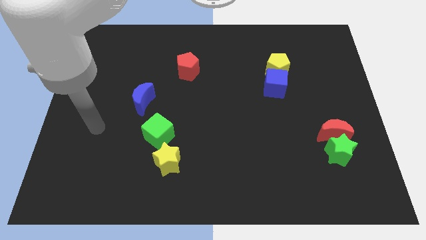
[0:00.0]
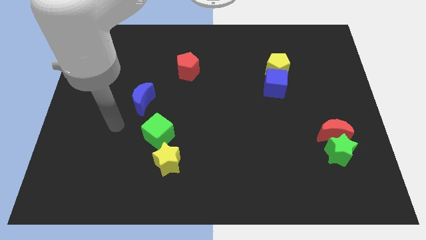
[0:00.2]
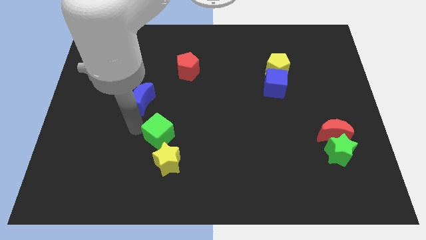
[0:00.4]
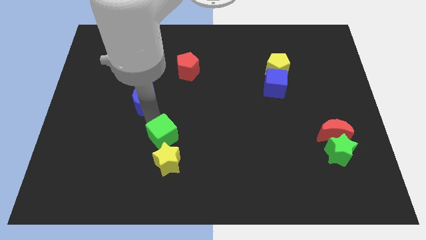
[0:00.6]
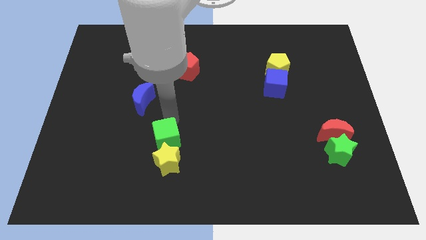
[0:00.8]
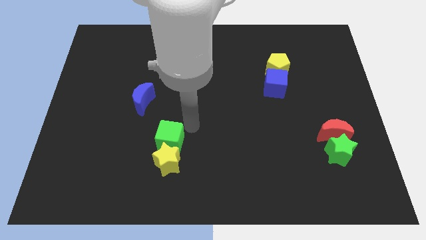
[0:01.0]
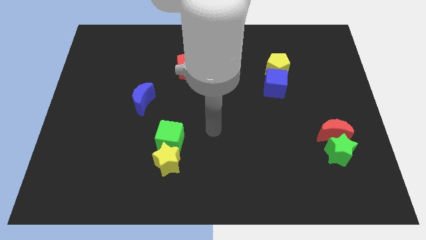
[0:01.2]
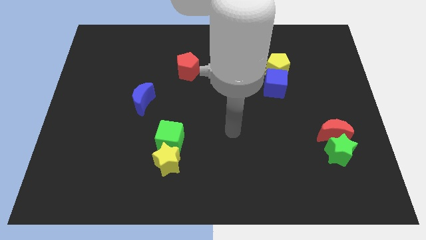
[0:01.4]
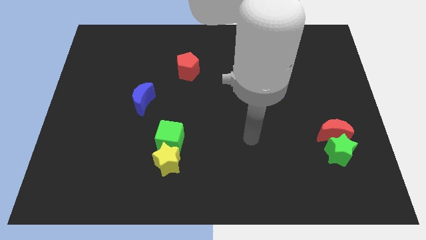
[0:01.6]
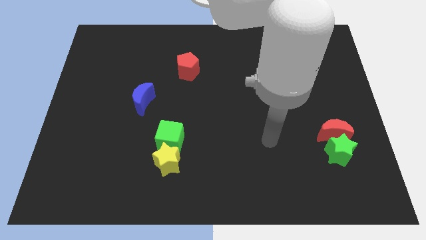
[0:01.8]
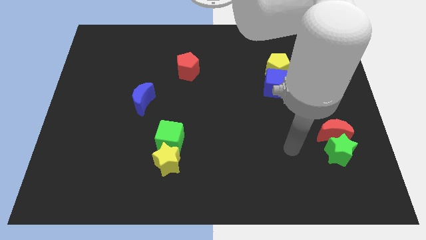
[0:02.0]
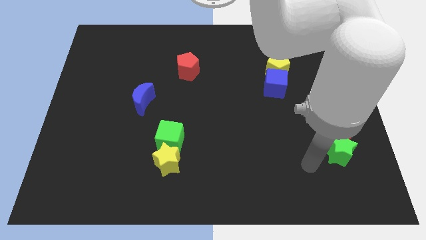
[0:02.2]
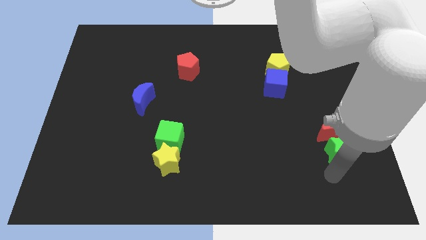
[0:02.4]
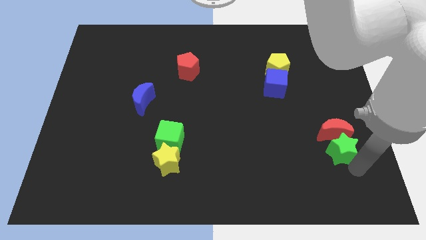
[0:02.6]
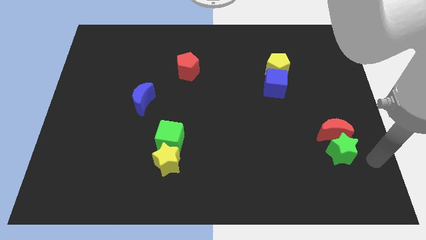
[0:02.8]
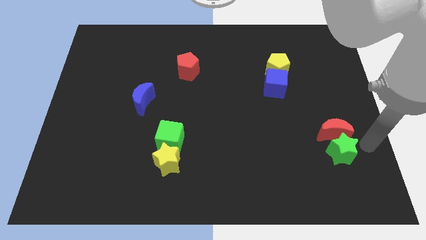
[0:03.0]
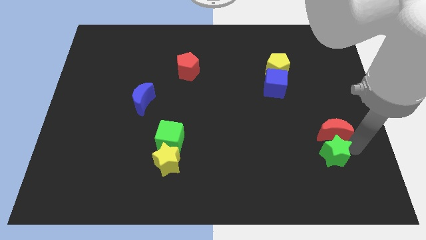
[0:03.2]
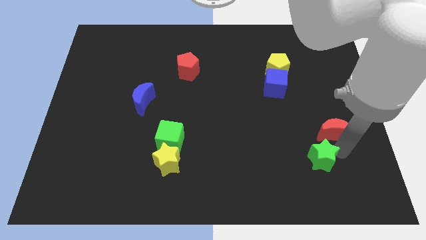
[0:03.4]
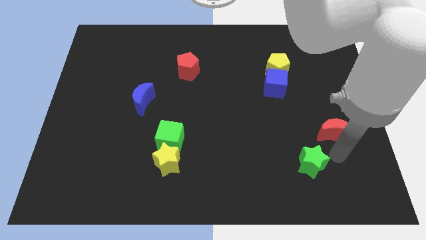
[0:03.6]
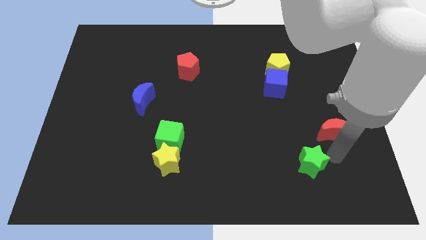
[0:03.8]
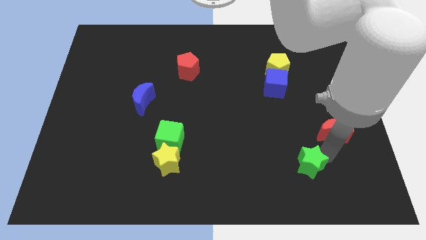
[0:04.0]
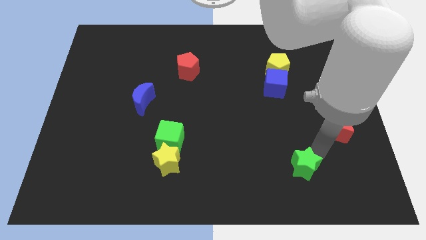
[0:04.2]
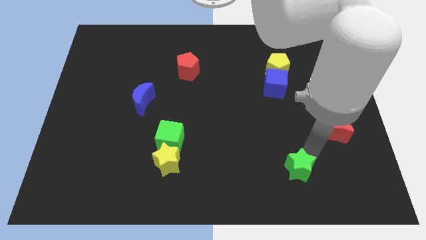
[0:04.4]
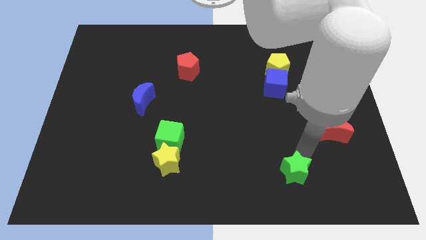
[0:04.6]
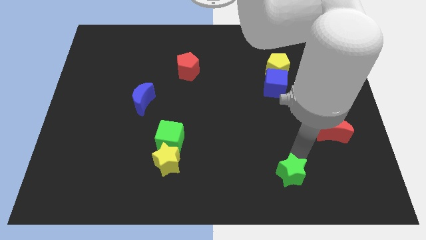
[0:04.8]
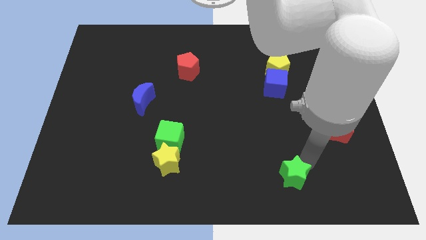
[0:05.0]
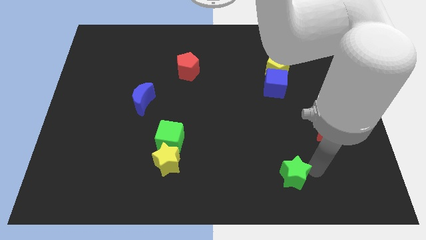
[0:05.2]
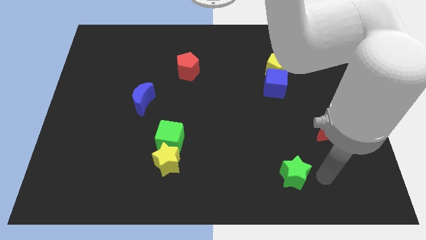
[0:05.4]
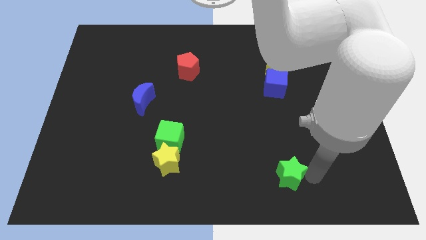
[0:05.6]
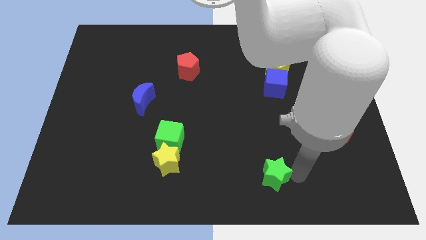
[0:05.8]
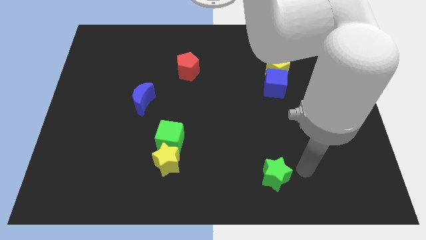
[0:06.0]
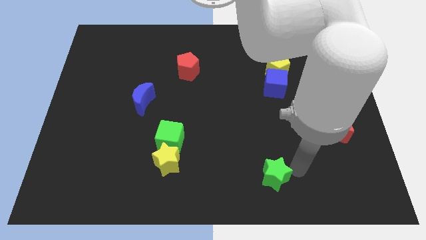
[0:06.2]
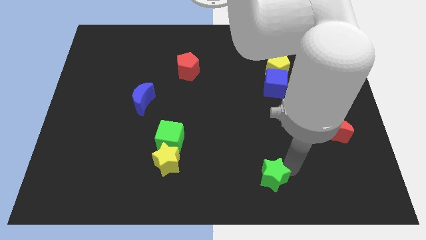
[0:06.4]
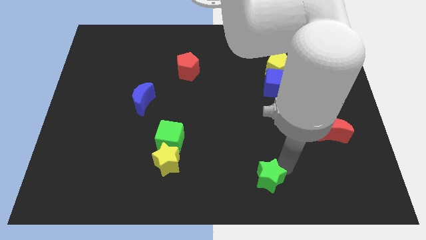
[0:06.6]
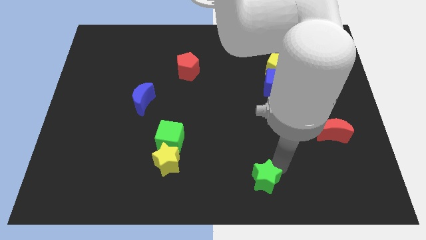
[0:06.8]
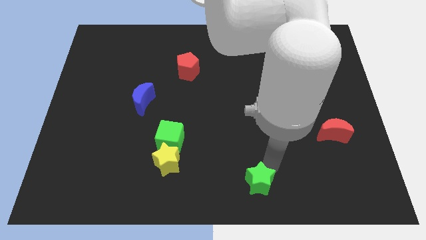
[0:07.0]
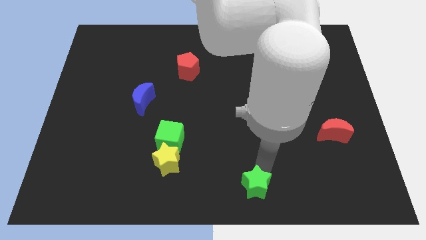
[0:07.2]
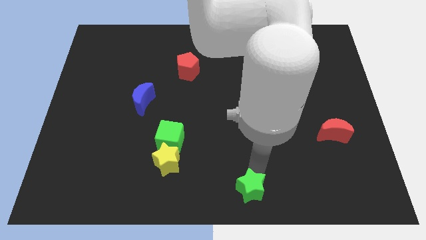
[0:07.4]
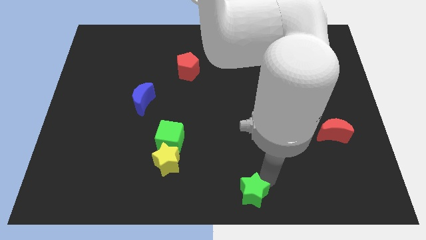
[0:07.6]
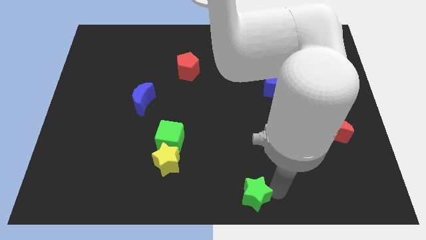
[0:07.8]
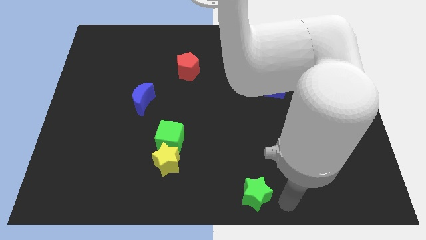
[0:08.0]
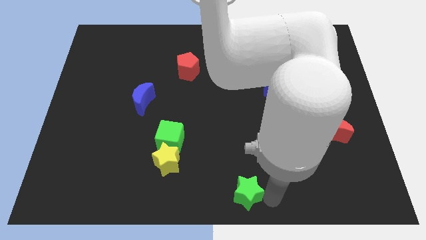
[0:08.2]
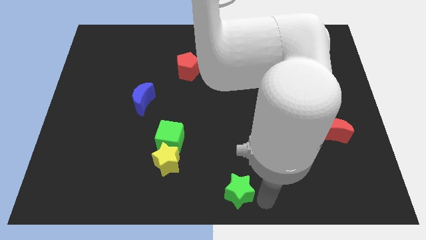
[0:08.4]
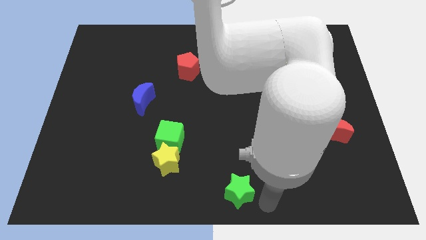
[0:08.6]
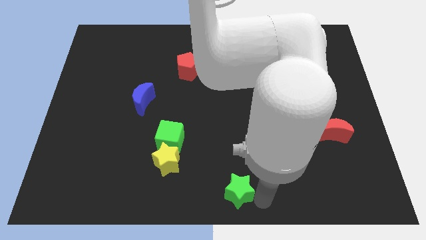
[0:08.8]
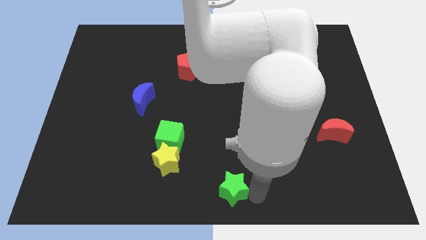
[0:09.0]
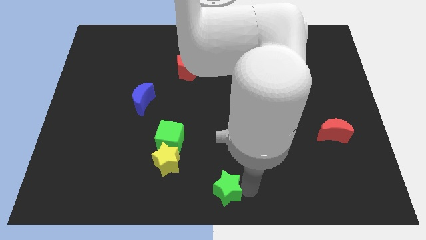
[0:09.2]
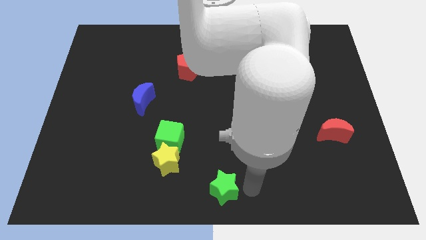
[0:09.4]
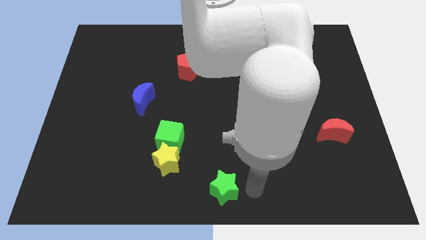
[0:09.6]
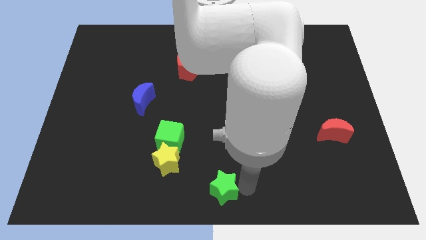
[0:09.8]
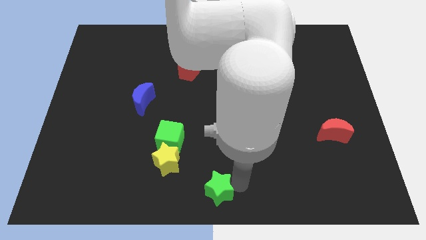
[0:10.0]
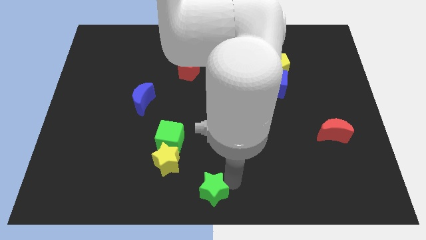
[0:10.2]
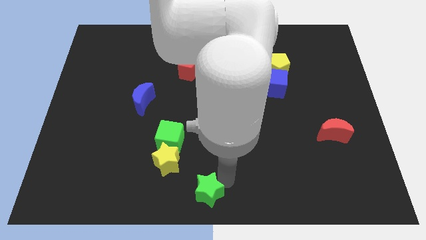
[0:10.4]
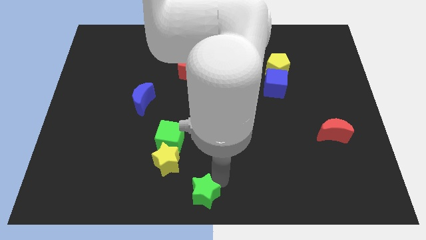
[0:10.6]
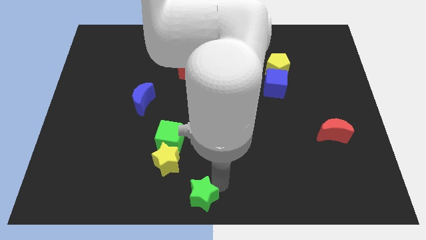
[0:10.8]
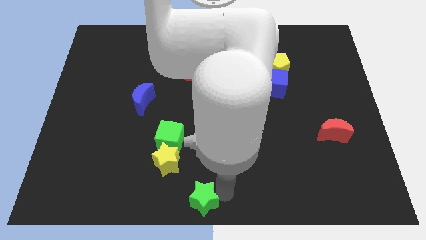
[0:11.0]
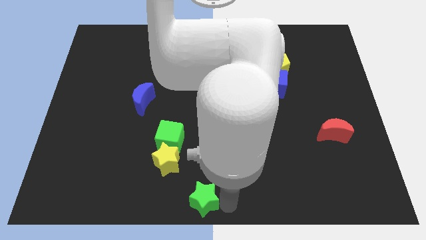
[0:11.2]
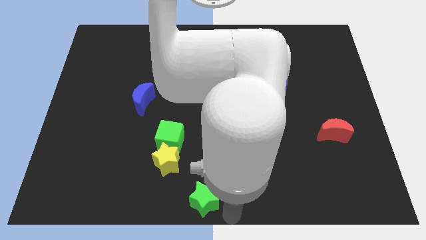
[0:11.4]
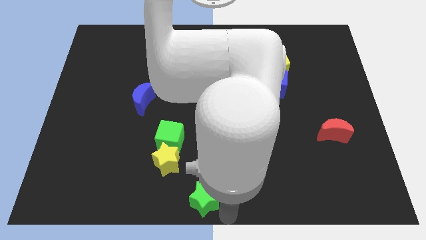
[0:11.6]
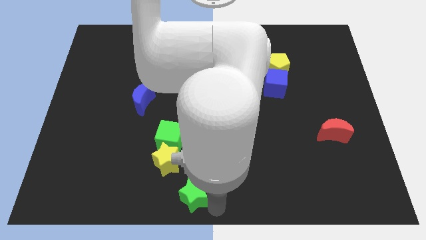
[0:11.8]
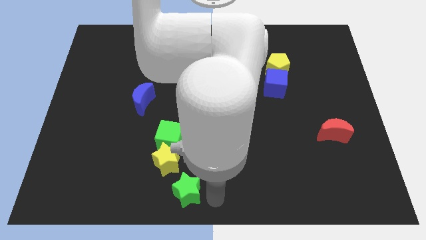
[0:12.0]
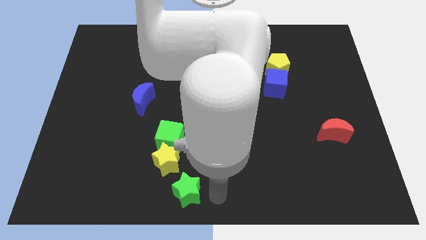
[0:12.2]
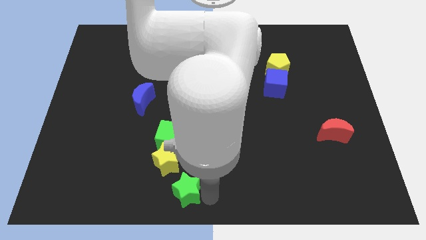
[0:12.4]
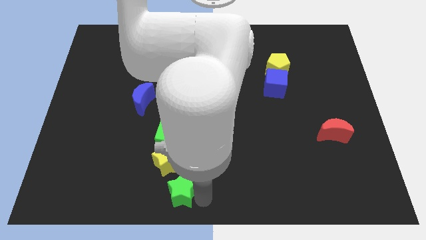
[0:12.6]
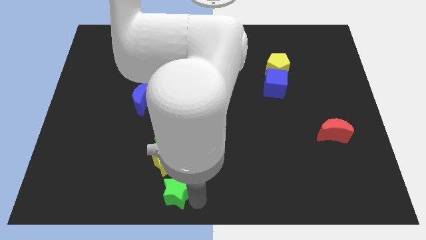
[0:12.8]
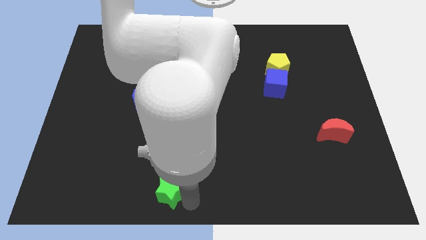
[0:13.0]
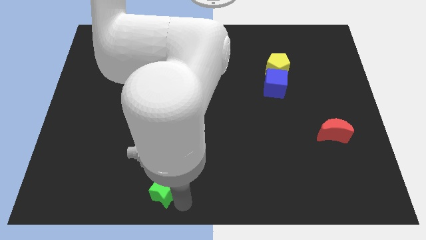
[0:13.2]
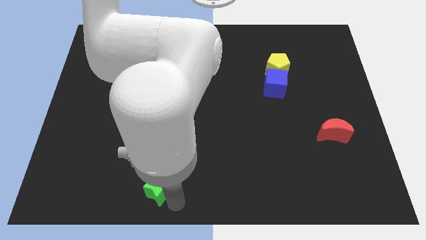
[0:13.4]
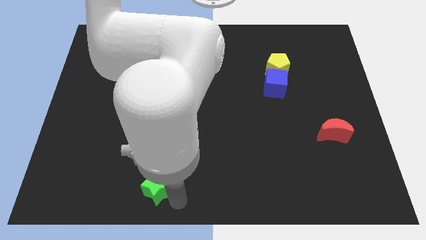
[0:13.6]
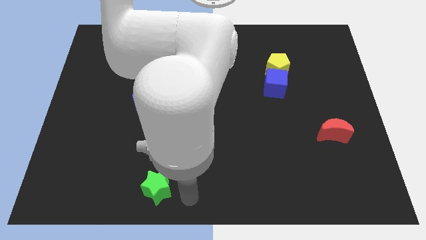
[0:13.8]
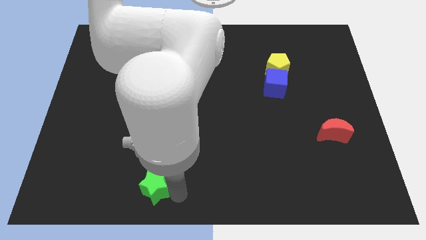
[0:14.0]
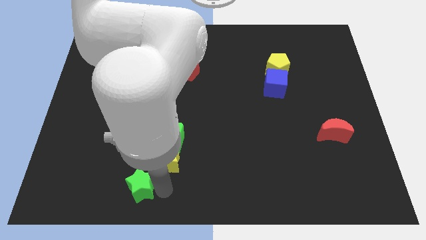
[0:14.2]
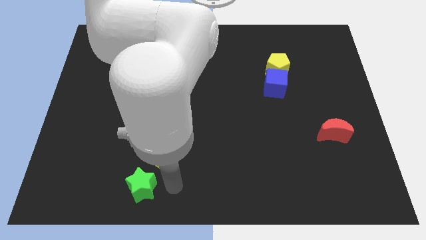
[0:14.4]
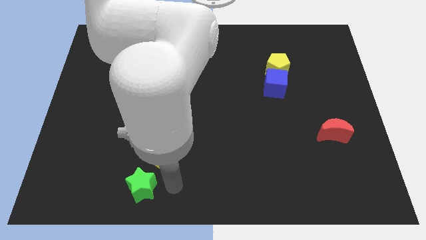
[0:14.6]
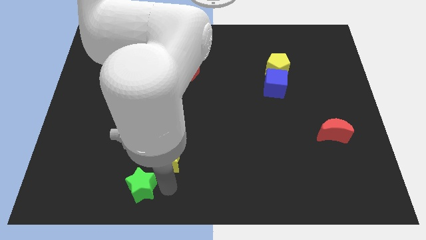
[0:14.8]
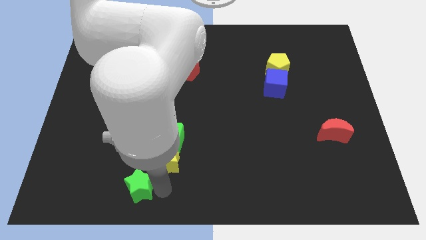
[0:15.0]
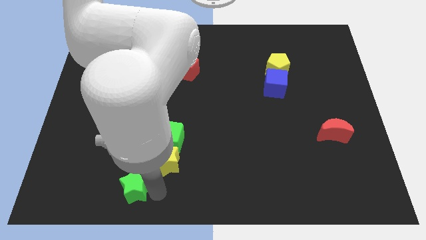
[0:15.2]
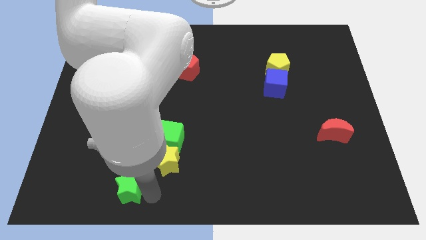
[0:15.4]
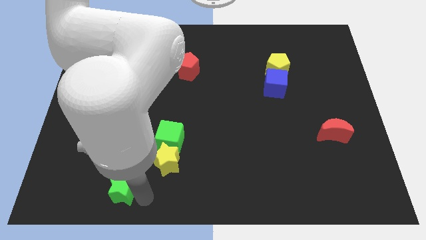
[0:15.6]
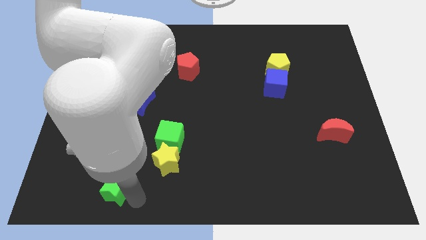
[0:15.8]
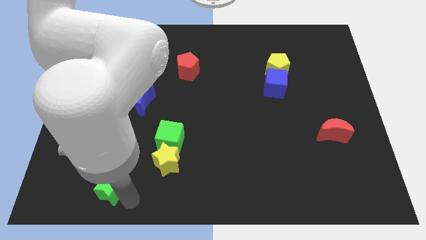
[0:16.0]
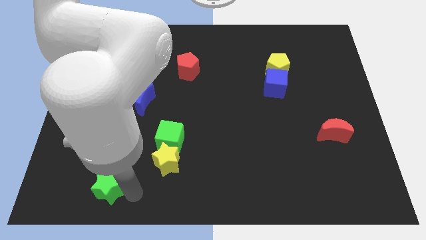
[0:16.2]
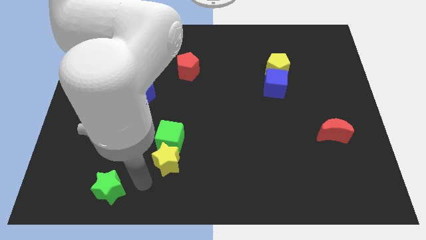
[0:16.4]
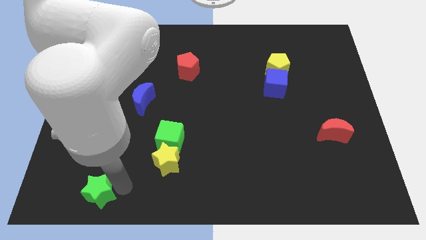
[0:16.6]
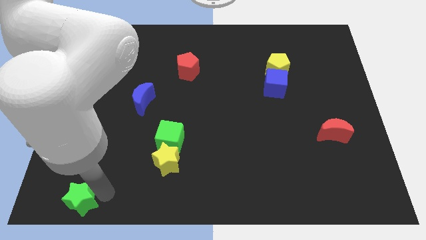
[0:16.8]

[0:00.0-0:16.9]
slide the green star to the lower left corner
